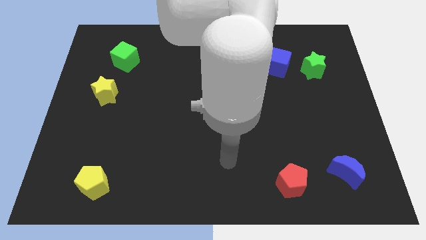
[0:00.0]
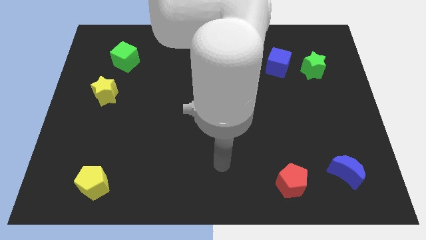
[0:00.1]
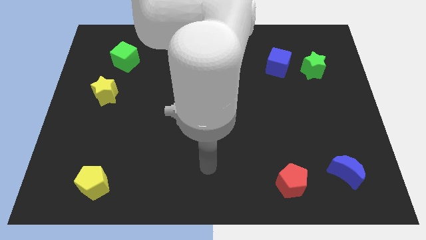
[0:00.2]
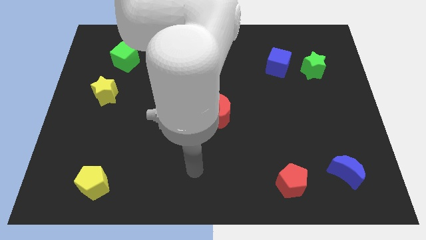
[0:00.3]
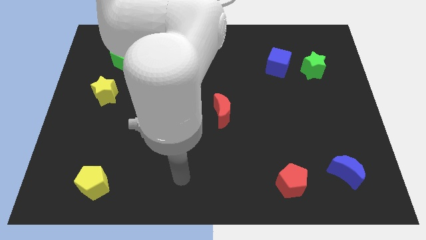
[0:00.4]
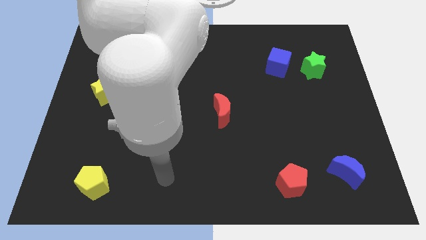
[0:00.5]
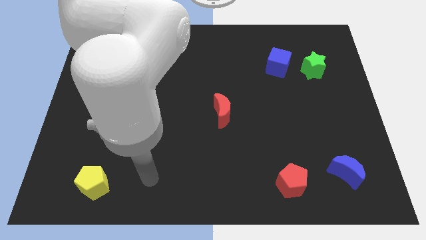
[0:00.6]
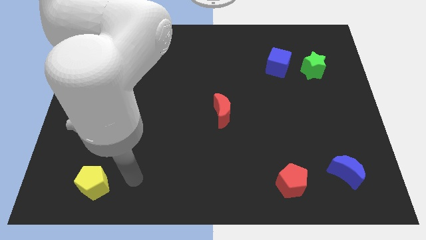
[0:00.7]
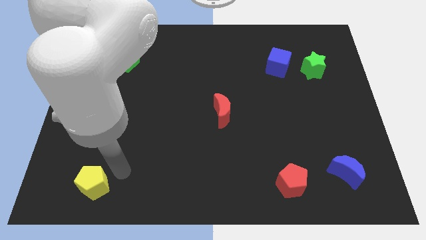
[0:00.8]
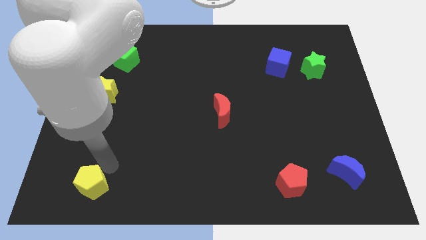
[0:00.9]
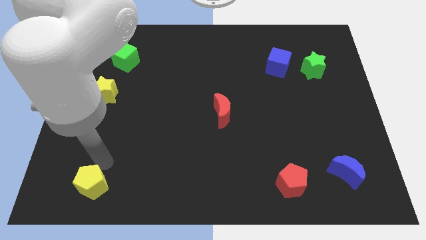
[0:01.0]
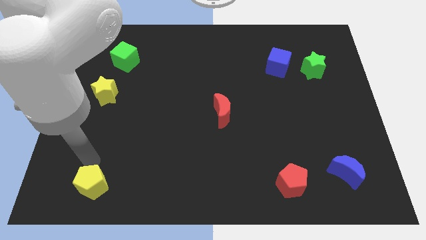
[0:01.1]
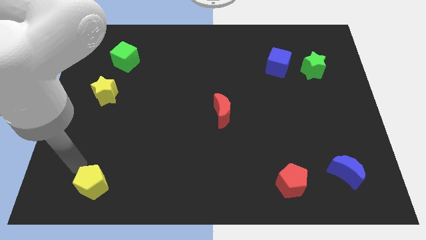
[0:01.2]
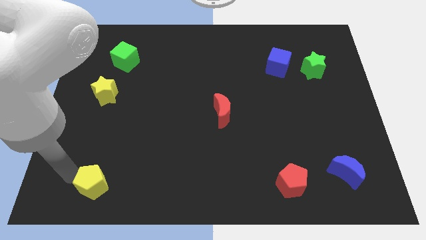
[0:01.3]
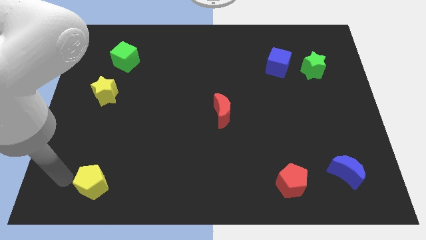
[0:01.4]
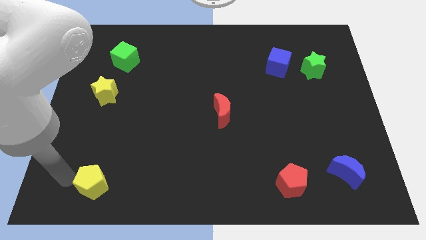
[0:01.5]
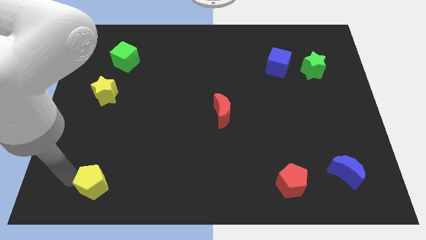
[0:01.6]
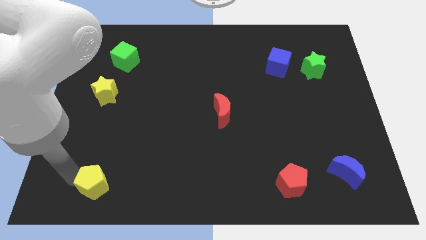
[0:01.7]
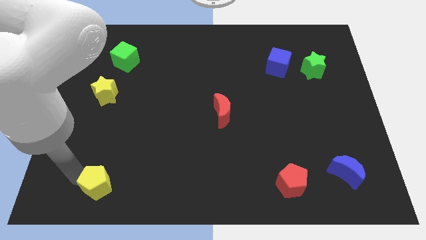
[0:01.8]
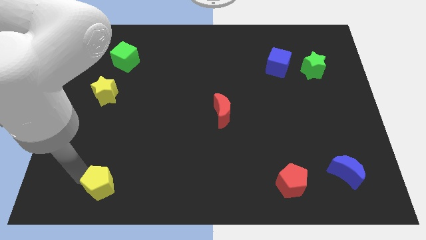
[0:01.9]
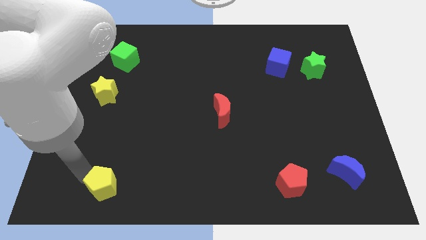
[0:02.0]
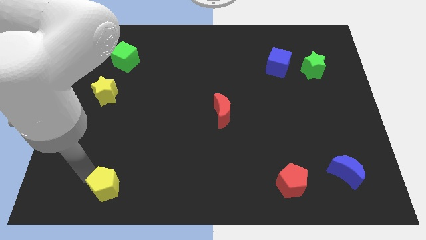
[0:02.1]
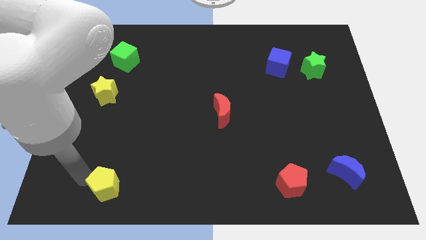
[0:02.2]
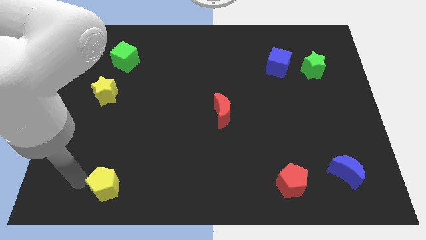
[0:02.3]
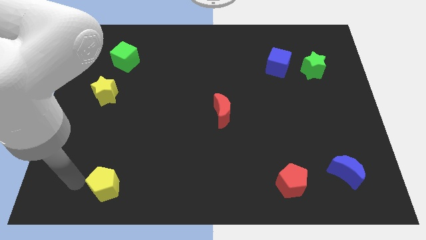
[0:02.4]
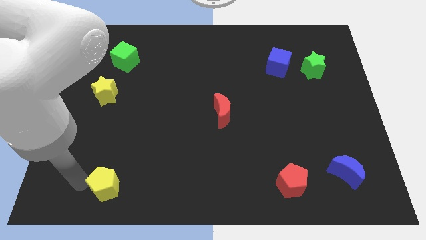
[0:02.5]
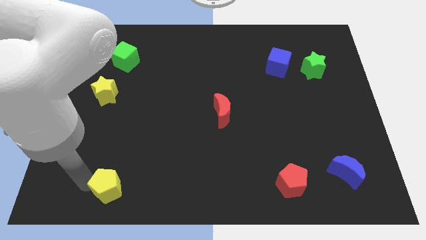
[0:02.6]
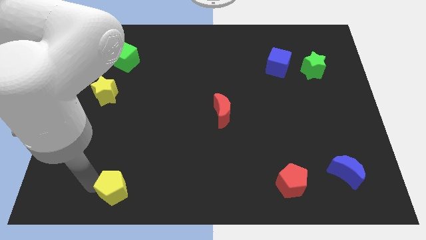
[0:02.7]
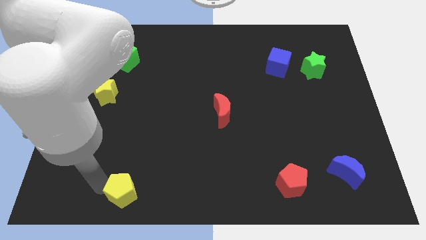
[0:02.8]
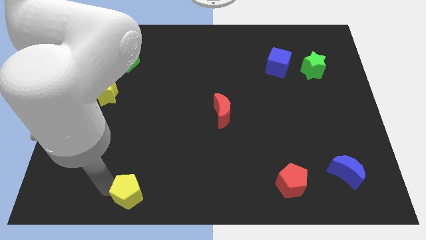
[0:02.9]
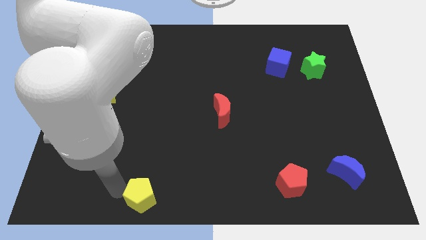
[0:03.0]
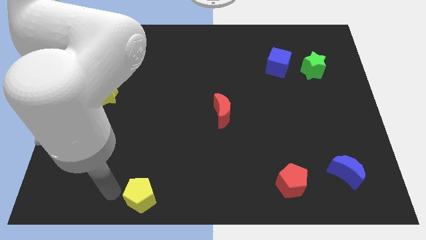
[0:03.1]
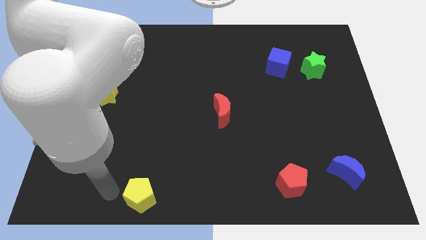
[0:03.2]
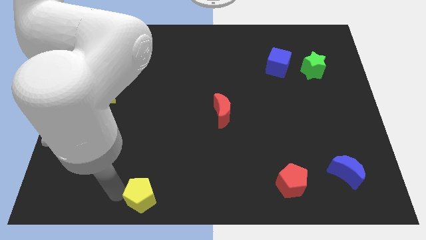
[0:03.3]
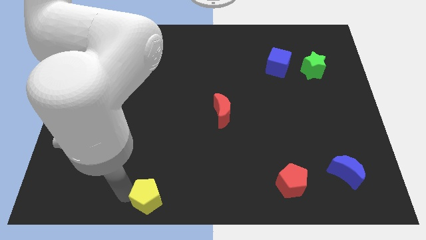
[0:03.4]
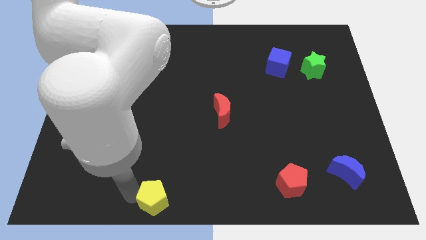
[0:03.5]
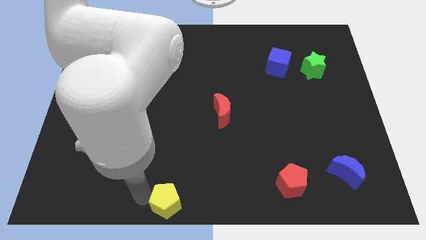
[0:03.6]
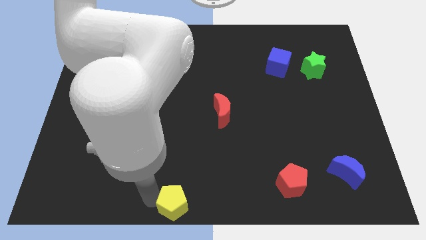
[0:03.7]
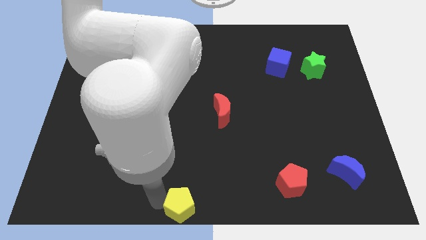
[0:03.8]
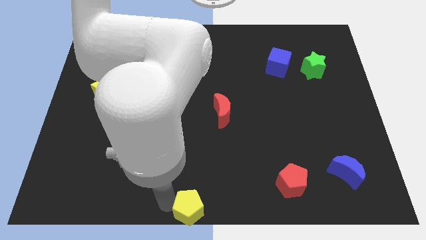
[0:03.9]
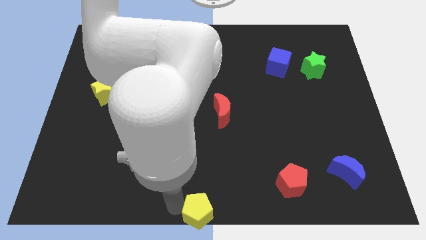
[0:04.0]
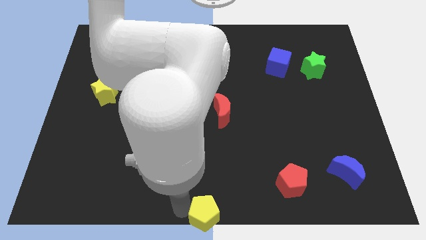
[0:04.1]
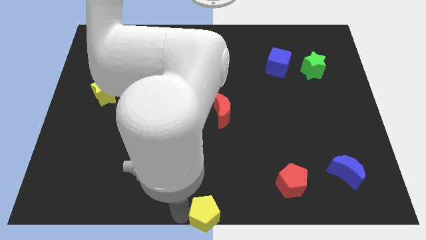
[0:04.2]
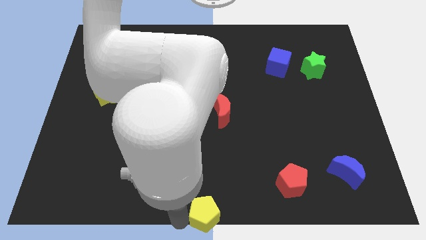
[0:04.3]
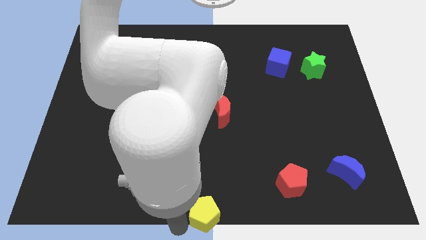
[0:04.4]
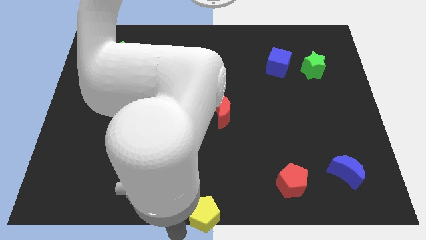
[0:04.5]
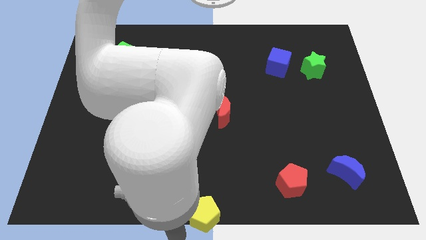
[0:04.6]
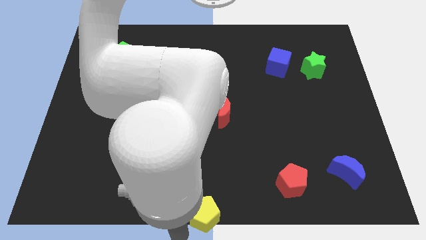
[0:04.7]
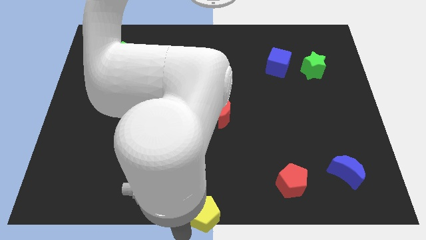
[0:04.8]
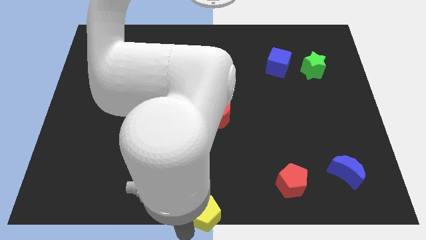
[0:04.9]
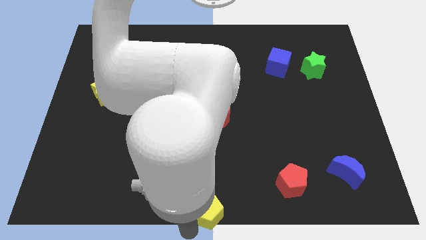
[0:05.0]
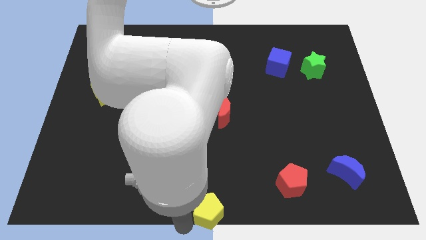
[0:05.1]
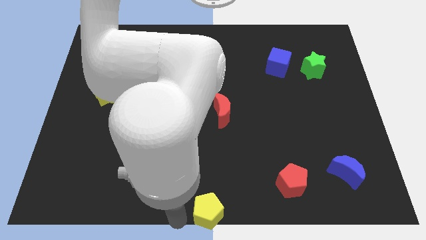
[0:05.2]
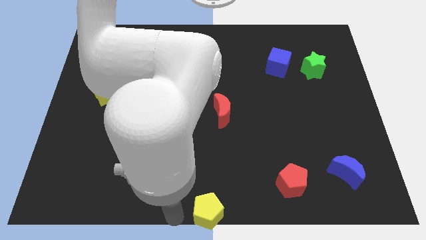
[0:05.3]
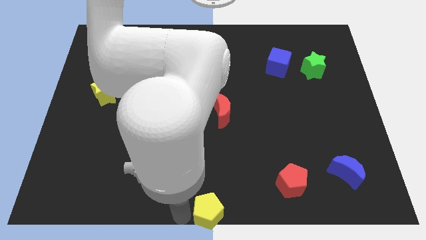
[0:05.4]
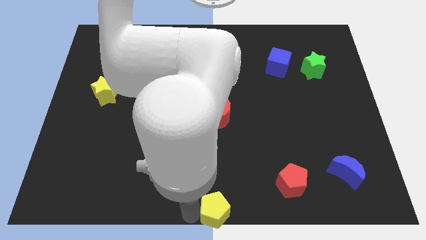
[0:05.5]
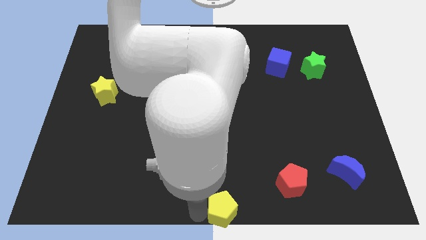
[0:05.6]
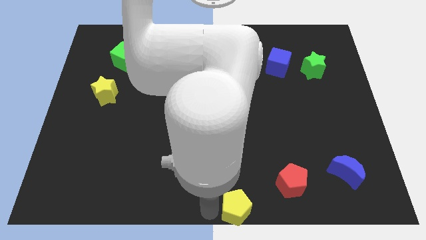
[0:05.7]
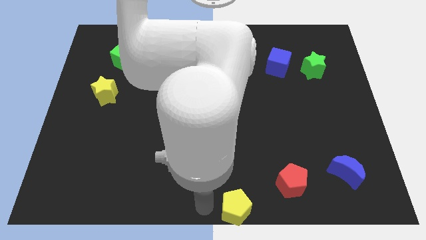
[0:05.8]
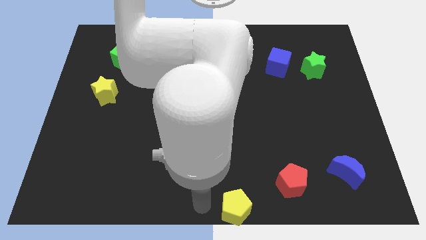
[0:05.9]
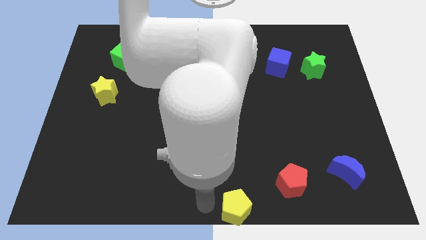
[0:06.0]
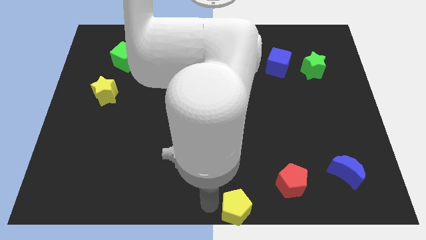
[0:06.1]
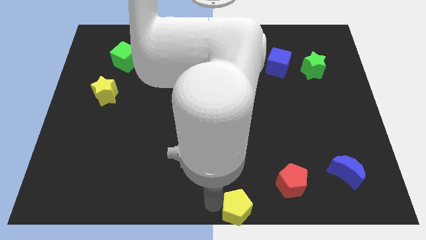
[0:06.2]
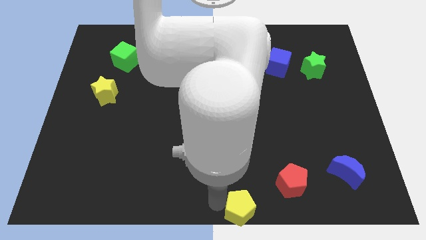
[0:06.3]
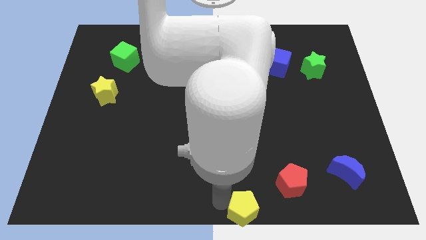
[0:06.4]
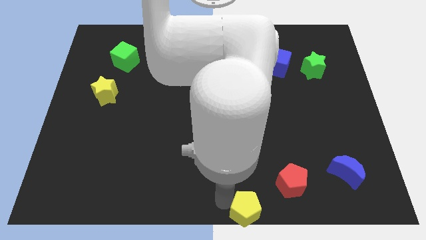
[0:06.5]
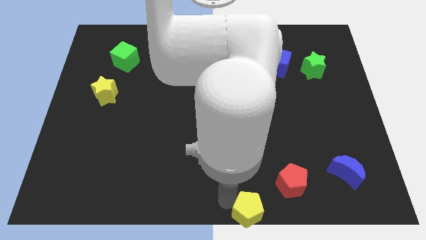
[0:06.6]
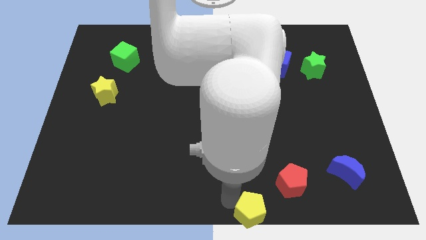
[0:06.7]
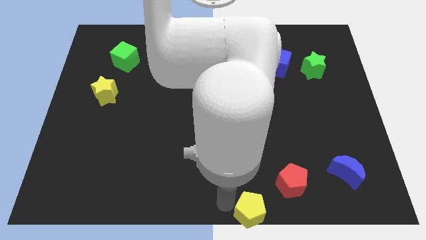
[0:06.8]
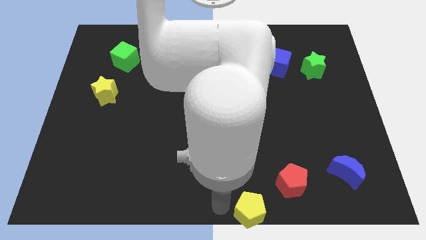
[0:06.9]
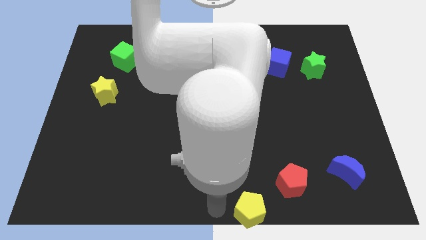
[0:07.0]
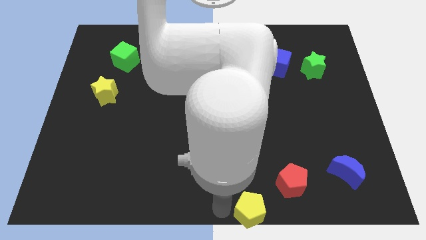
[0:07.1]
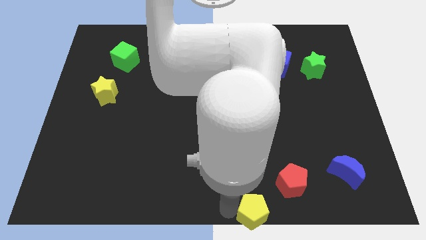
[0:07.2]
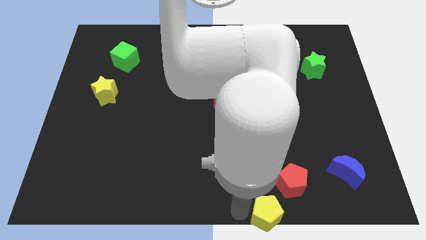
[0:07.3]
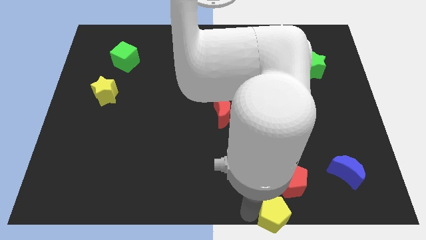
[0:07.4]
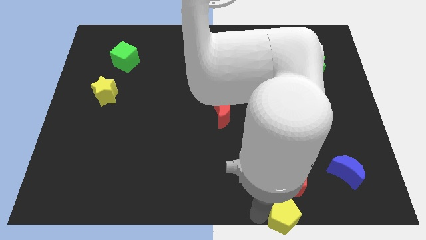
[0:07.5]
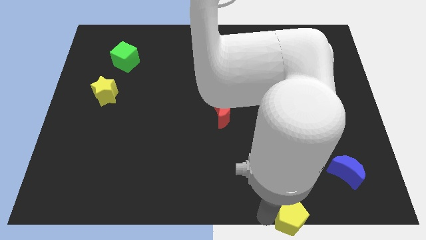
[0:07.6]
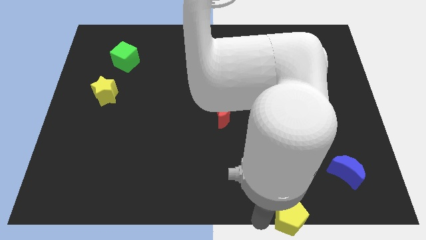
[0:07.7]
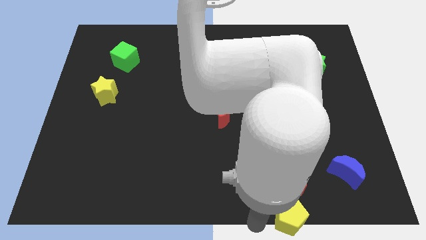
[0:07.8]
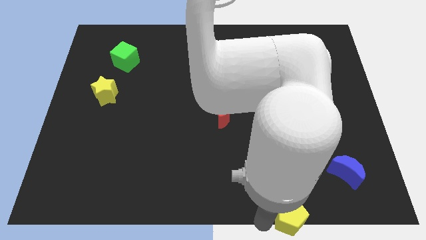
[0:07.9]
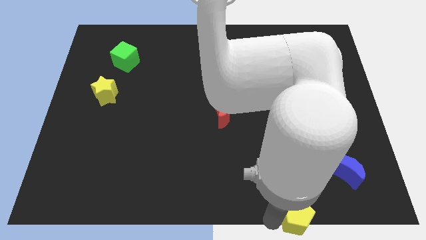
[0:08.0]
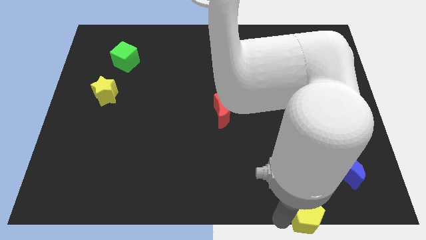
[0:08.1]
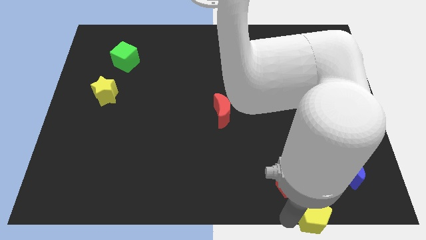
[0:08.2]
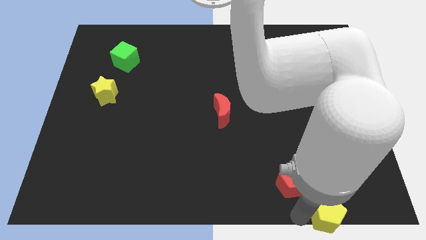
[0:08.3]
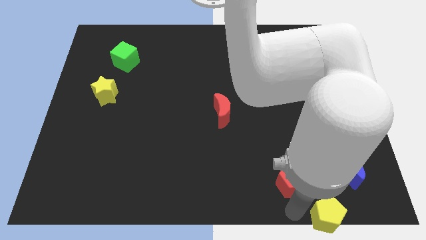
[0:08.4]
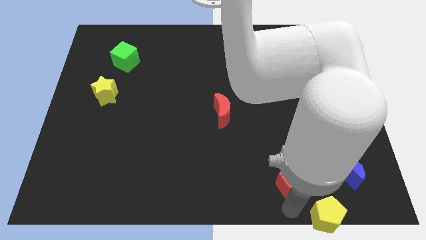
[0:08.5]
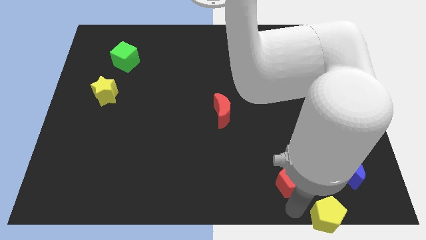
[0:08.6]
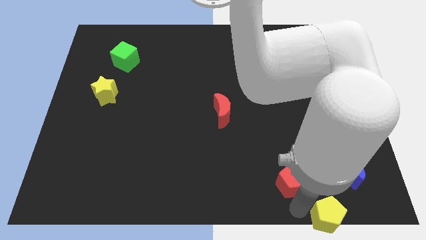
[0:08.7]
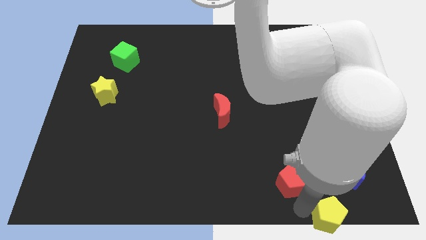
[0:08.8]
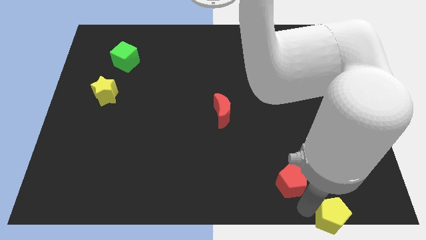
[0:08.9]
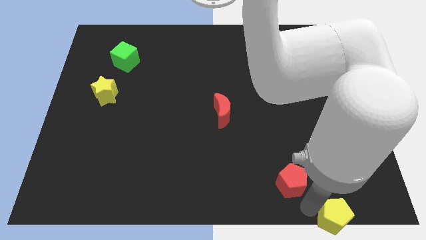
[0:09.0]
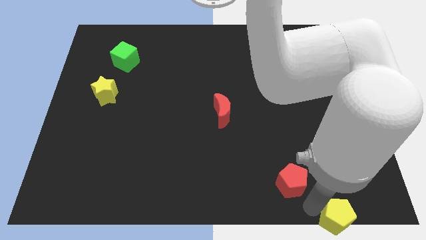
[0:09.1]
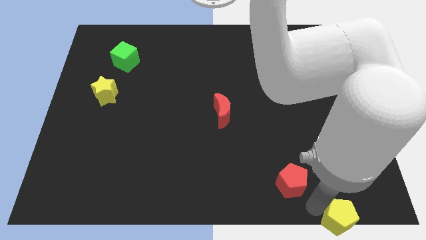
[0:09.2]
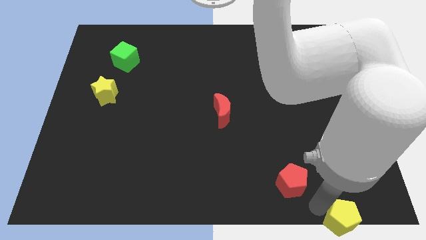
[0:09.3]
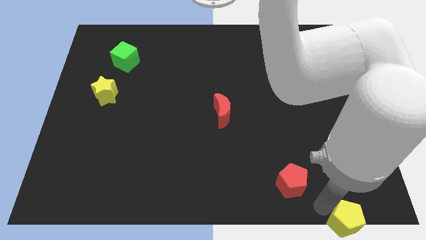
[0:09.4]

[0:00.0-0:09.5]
put the yellow pentagon to the bottom right of the board
